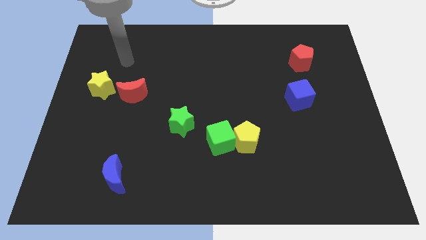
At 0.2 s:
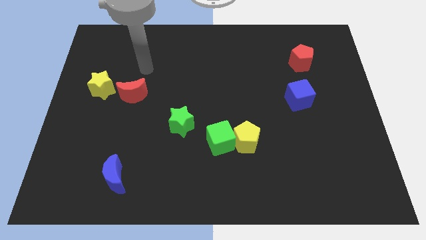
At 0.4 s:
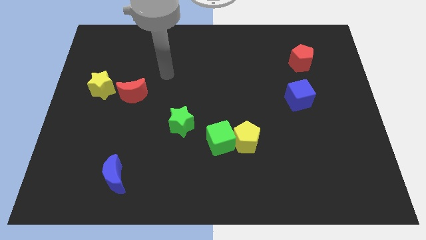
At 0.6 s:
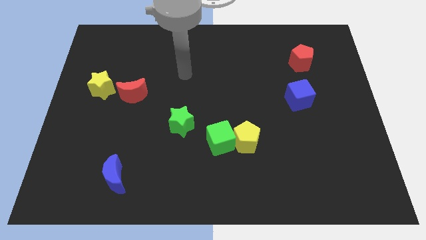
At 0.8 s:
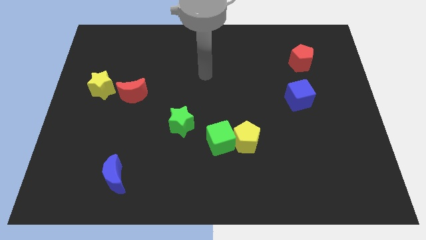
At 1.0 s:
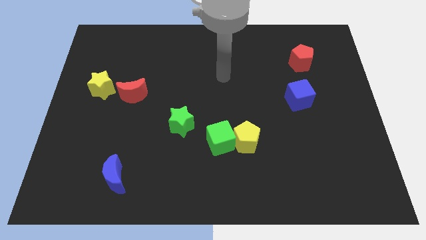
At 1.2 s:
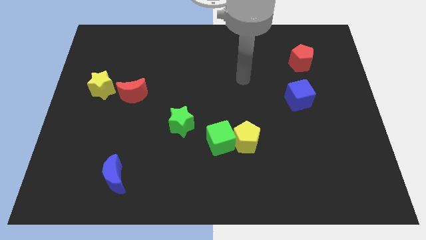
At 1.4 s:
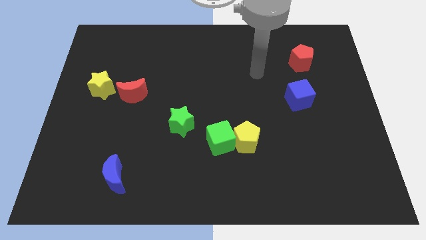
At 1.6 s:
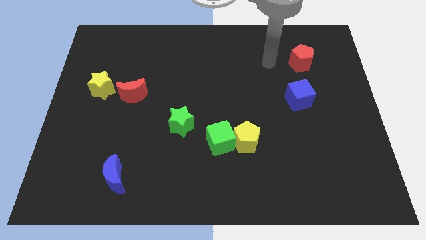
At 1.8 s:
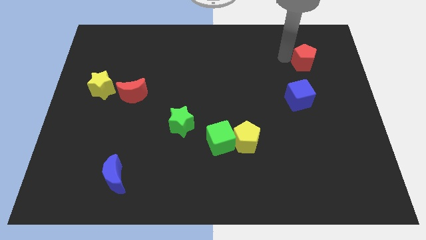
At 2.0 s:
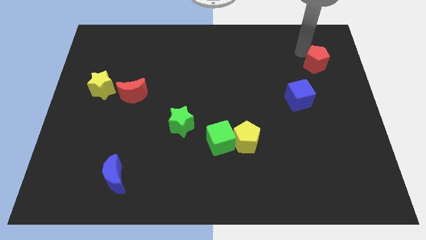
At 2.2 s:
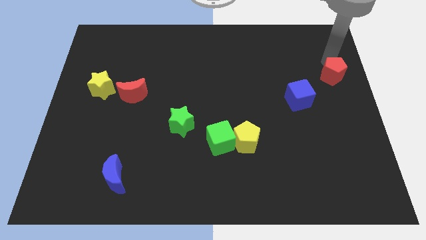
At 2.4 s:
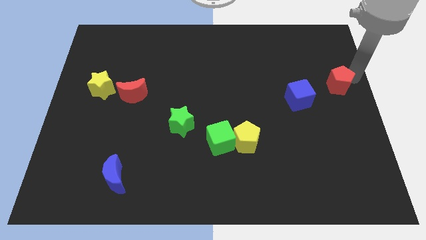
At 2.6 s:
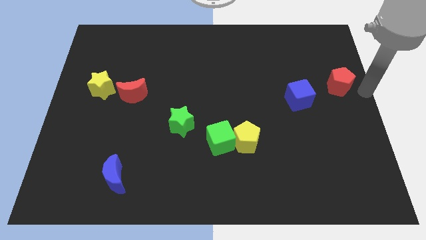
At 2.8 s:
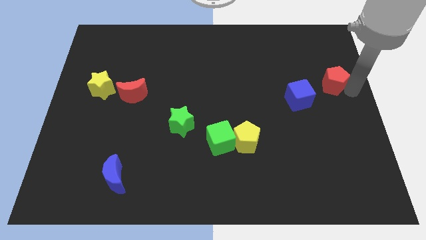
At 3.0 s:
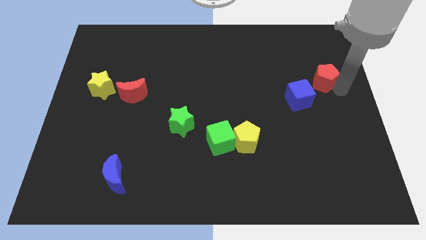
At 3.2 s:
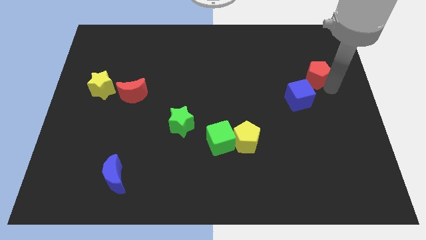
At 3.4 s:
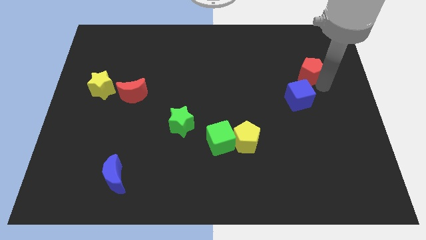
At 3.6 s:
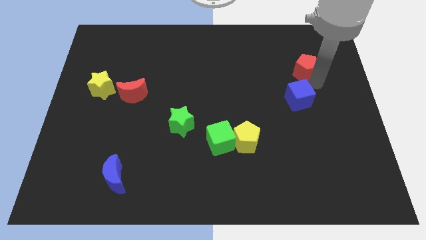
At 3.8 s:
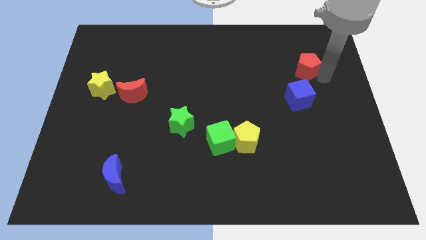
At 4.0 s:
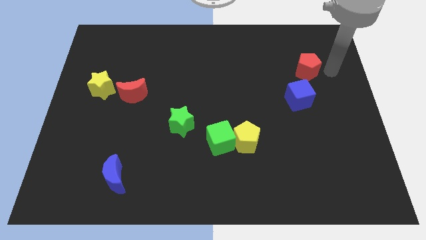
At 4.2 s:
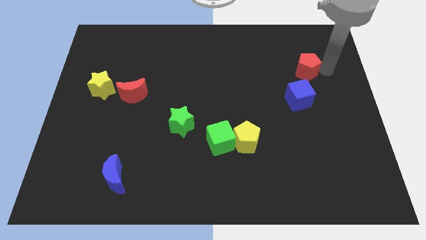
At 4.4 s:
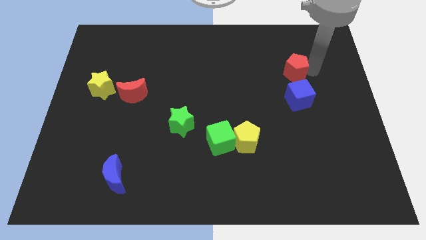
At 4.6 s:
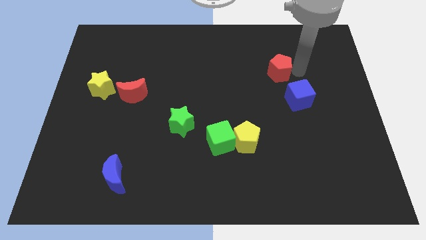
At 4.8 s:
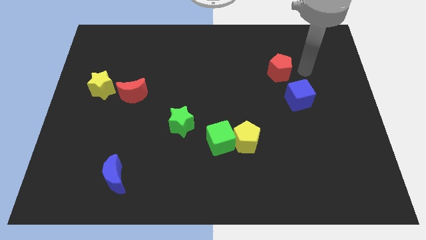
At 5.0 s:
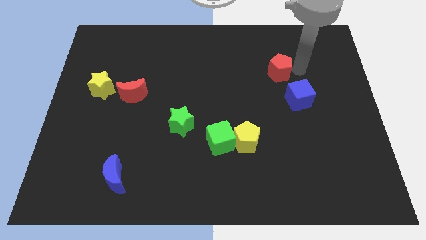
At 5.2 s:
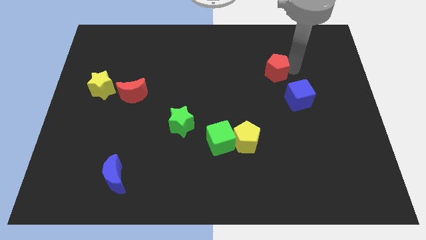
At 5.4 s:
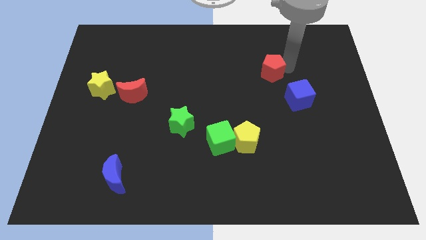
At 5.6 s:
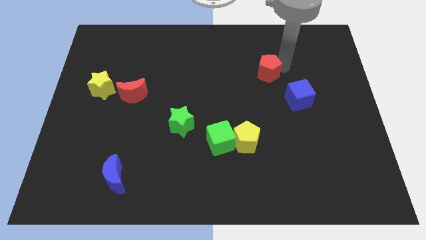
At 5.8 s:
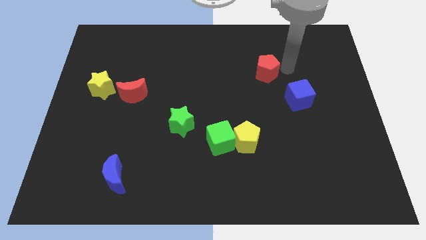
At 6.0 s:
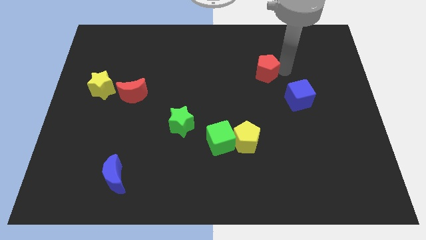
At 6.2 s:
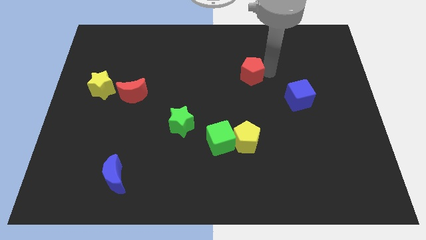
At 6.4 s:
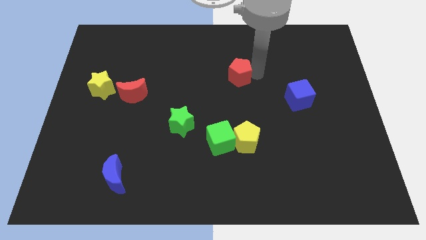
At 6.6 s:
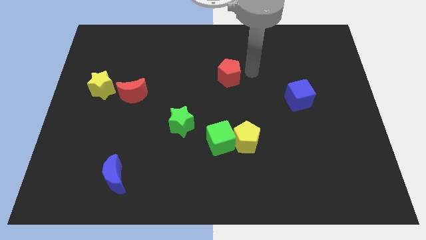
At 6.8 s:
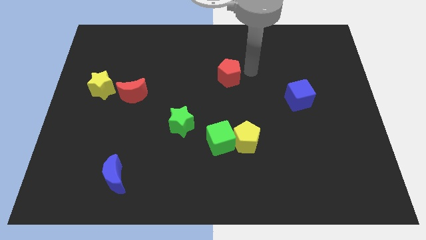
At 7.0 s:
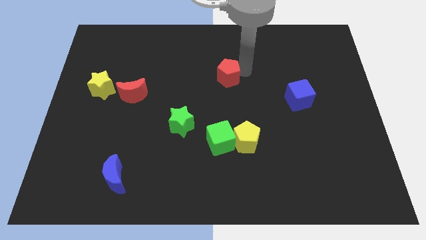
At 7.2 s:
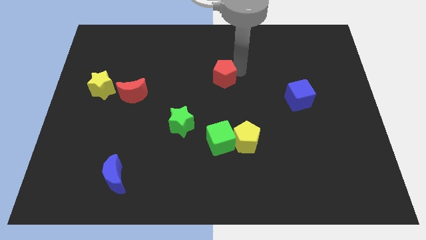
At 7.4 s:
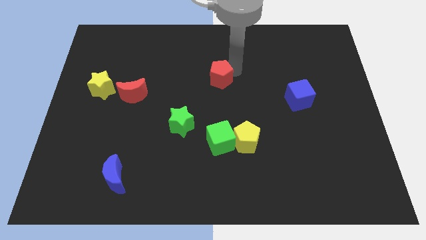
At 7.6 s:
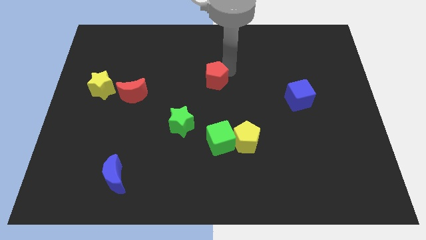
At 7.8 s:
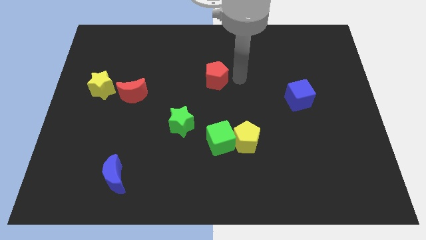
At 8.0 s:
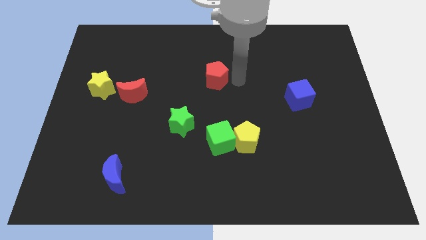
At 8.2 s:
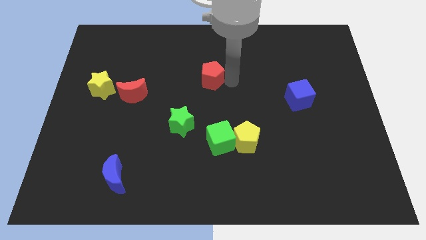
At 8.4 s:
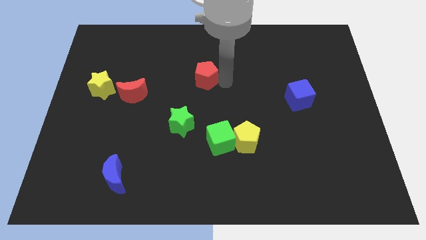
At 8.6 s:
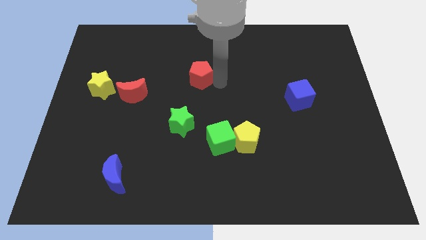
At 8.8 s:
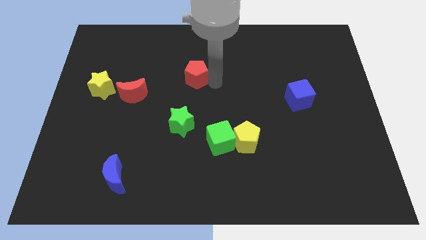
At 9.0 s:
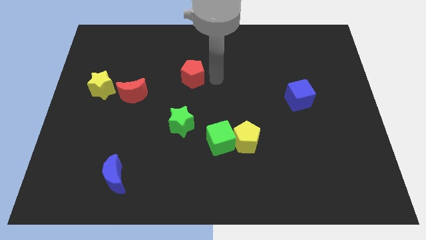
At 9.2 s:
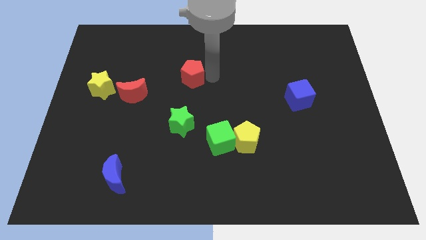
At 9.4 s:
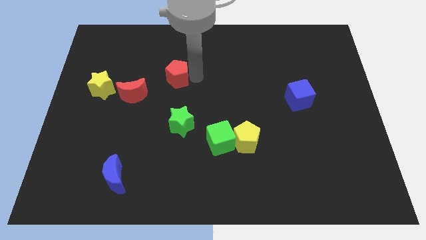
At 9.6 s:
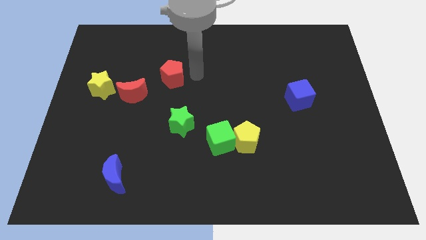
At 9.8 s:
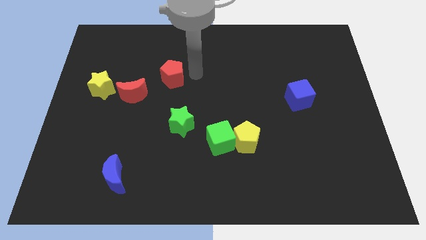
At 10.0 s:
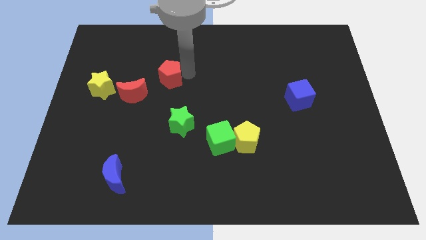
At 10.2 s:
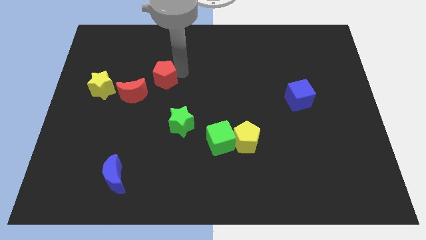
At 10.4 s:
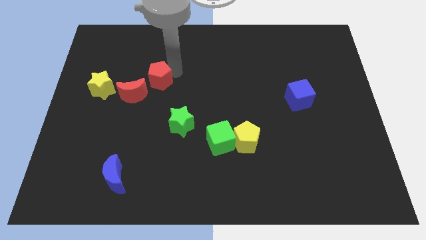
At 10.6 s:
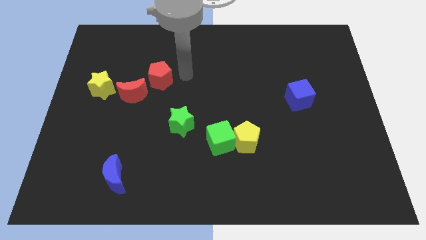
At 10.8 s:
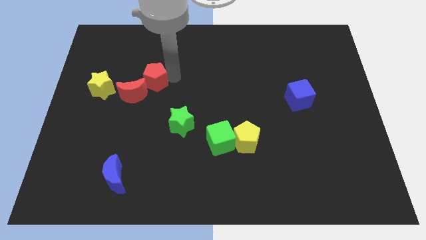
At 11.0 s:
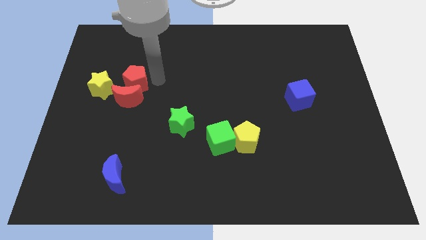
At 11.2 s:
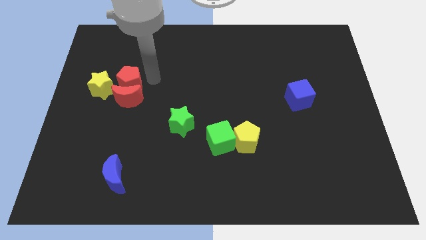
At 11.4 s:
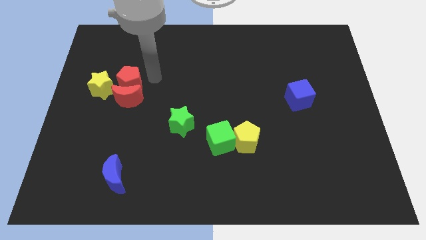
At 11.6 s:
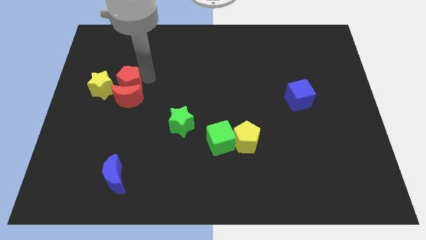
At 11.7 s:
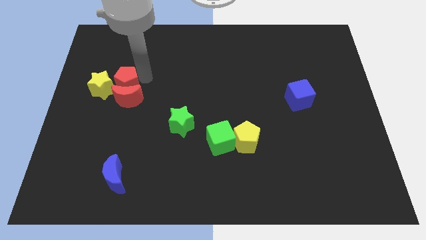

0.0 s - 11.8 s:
push the red pentagon towards the yellow star
